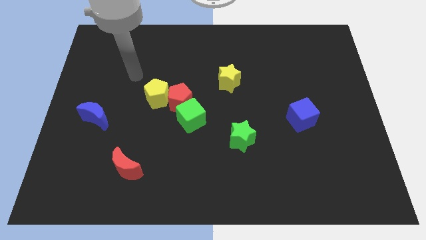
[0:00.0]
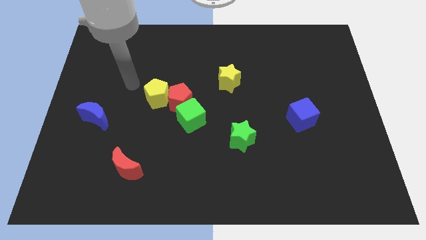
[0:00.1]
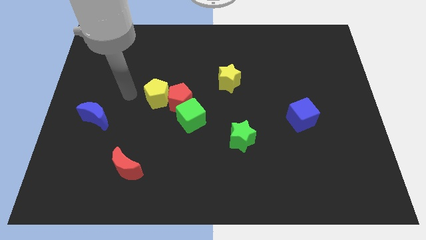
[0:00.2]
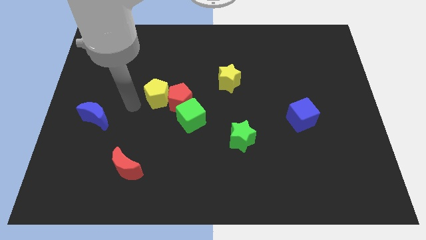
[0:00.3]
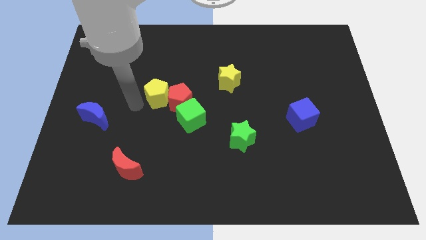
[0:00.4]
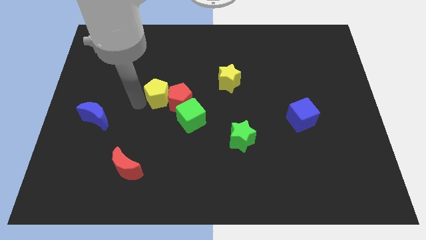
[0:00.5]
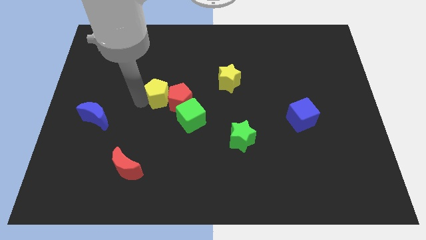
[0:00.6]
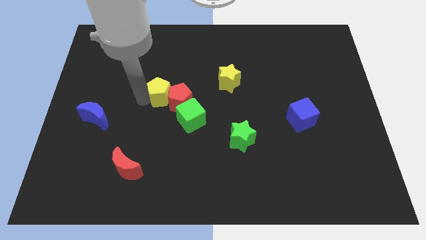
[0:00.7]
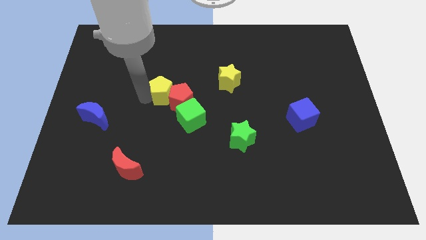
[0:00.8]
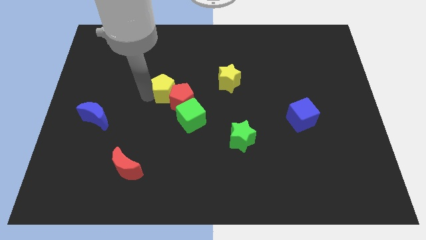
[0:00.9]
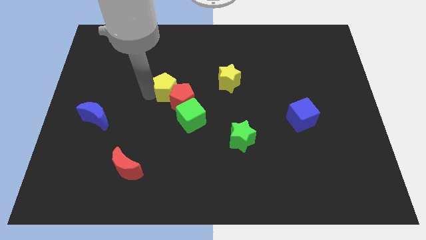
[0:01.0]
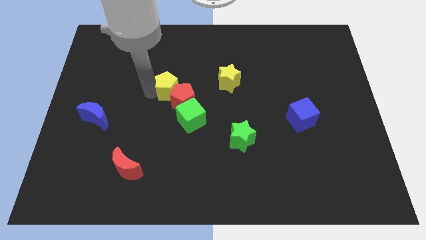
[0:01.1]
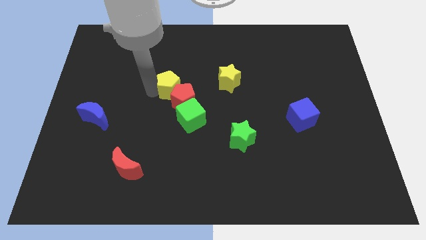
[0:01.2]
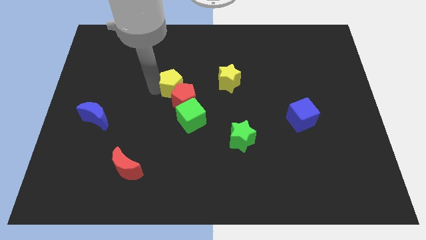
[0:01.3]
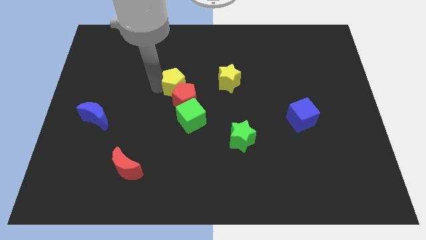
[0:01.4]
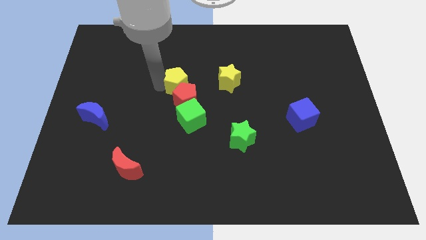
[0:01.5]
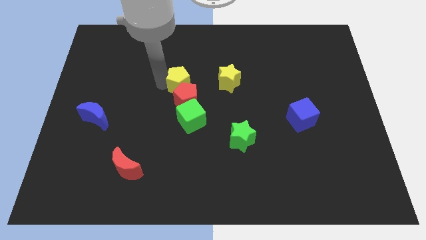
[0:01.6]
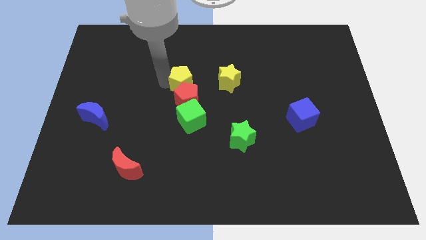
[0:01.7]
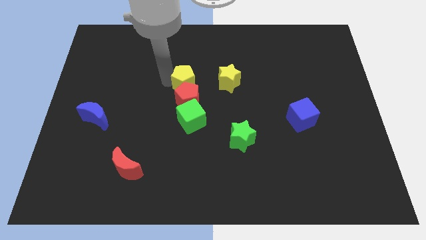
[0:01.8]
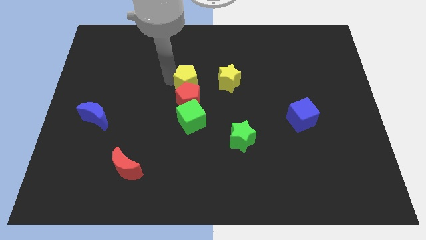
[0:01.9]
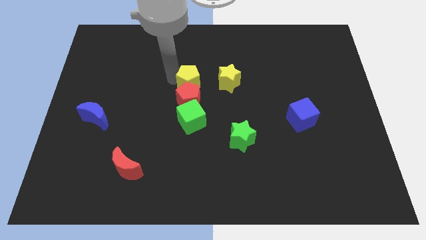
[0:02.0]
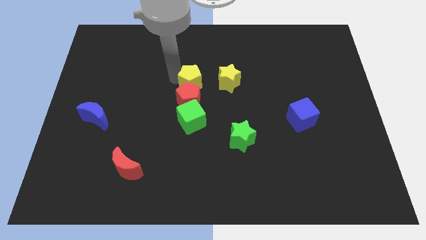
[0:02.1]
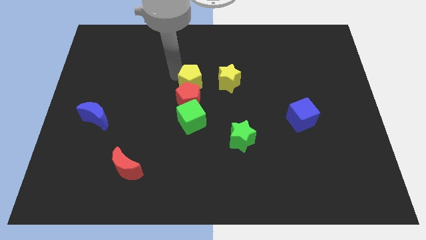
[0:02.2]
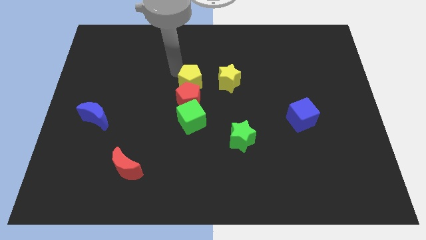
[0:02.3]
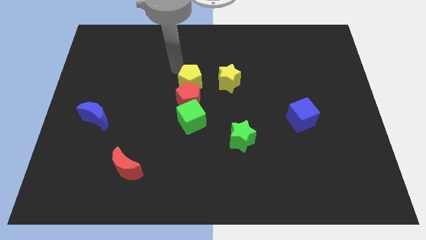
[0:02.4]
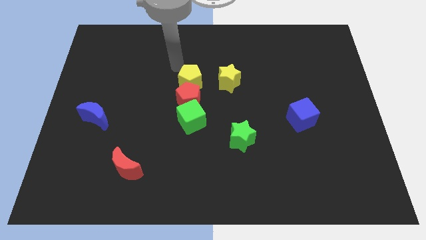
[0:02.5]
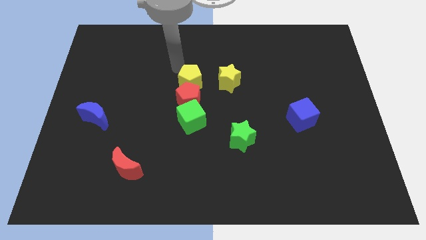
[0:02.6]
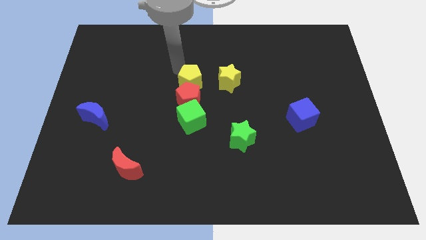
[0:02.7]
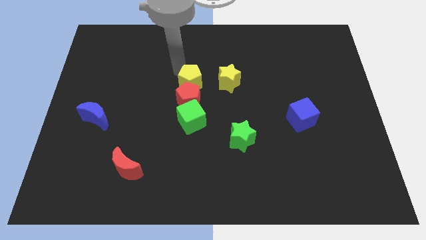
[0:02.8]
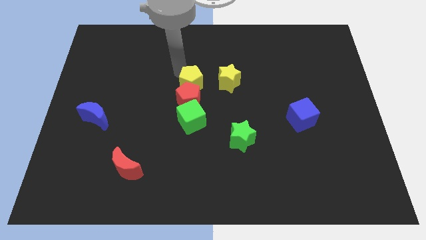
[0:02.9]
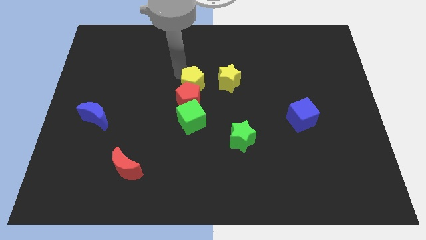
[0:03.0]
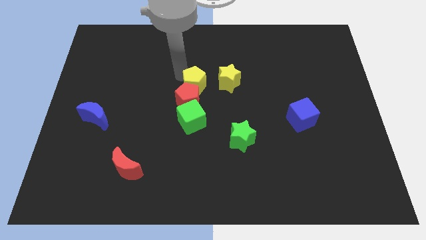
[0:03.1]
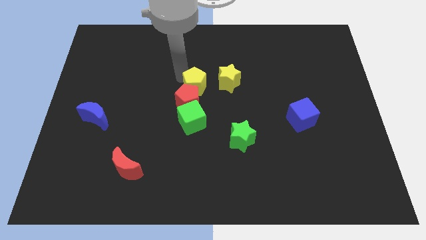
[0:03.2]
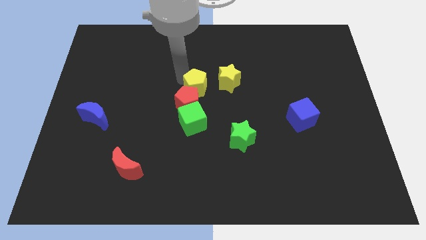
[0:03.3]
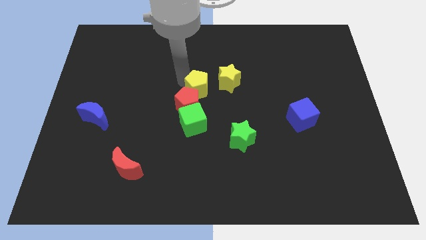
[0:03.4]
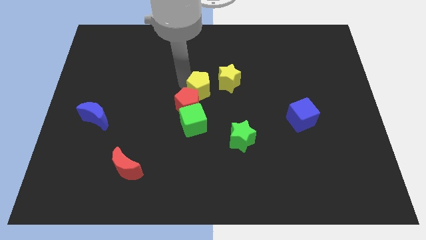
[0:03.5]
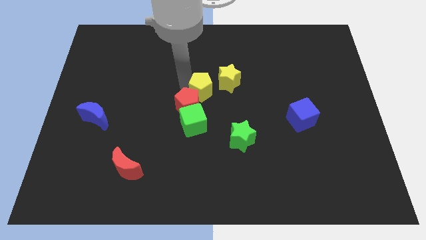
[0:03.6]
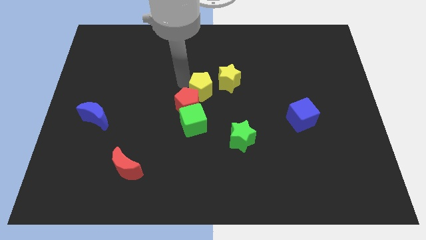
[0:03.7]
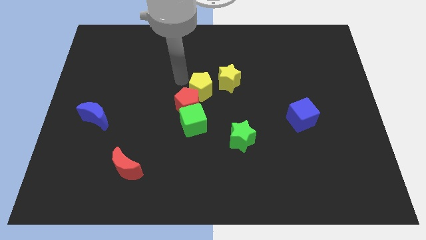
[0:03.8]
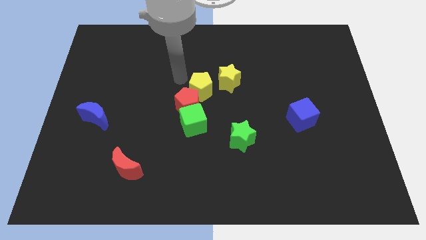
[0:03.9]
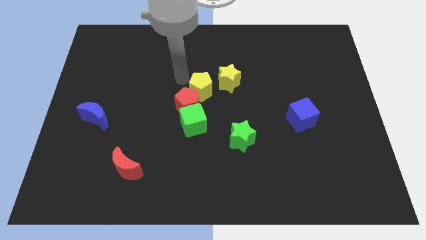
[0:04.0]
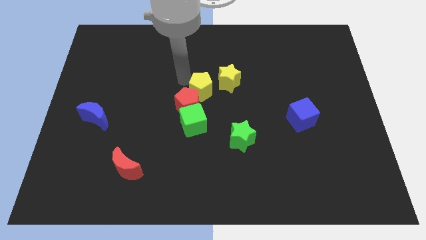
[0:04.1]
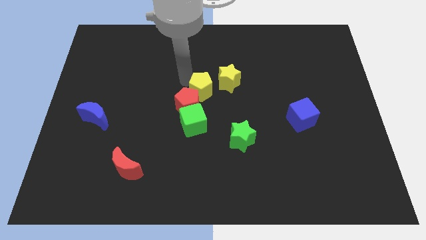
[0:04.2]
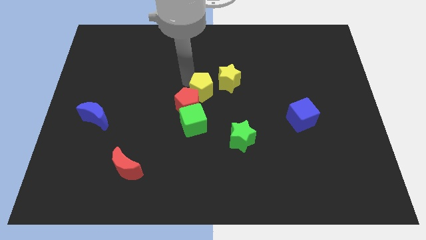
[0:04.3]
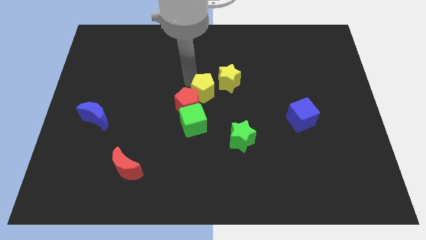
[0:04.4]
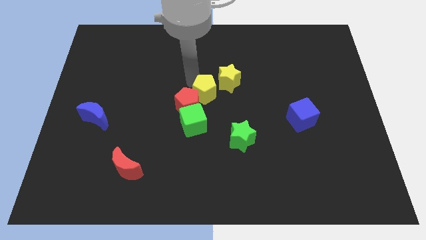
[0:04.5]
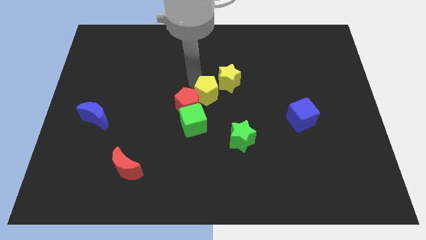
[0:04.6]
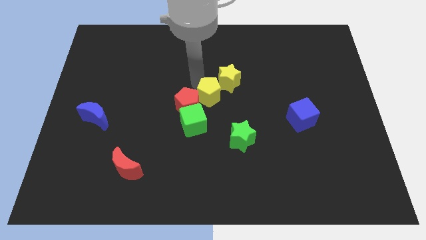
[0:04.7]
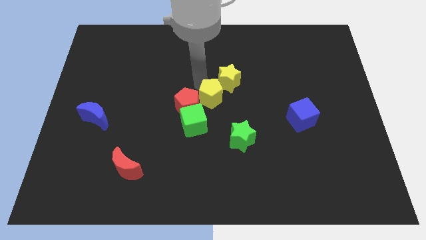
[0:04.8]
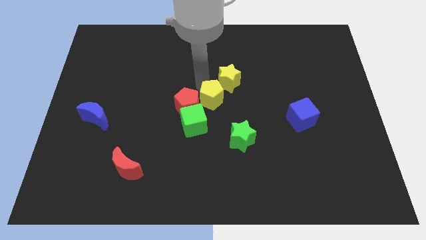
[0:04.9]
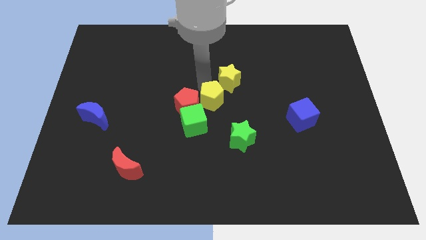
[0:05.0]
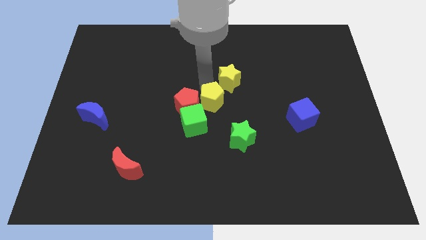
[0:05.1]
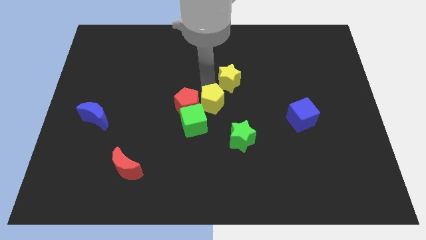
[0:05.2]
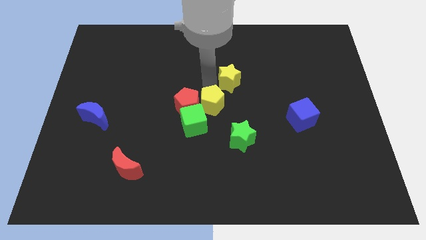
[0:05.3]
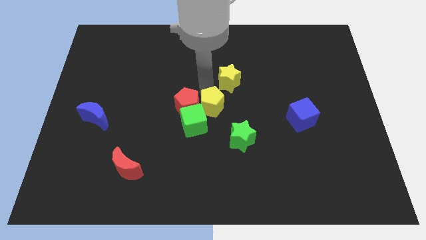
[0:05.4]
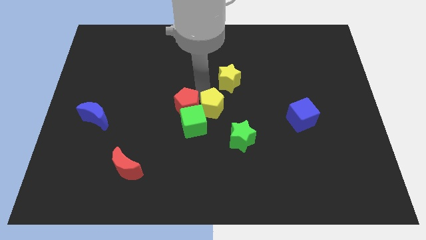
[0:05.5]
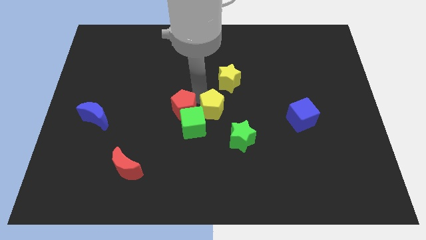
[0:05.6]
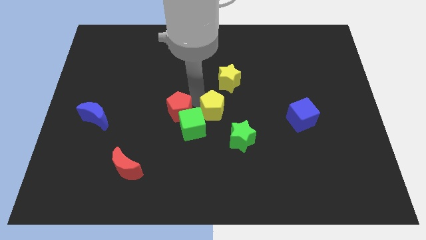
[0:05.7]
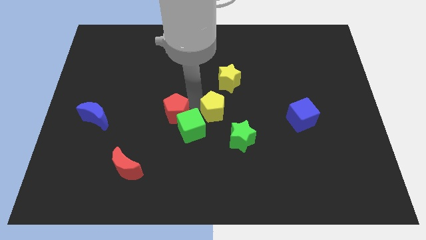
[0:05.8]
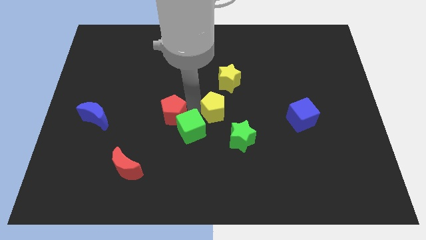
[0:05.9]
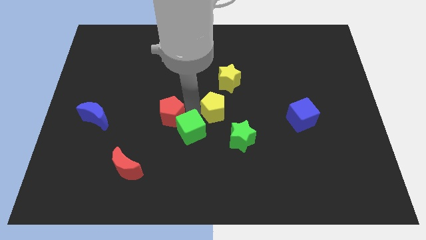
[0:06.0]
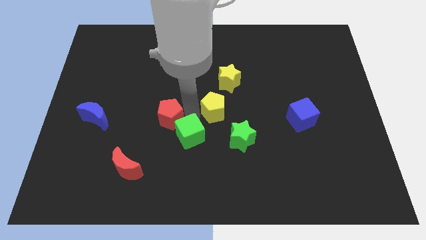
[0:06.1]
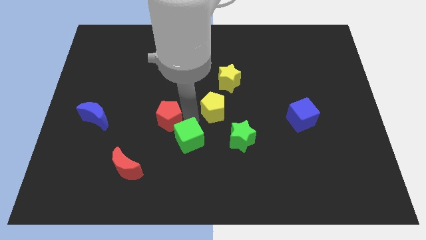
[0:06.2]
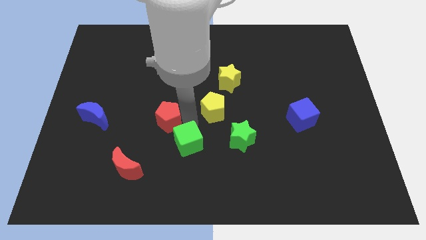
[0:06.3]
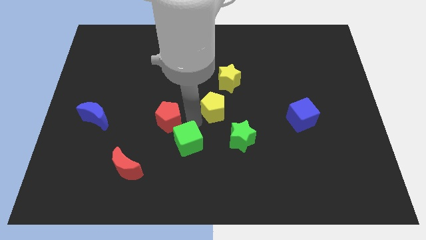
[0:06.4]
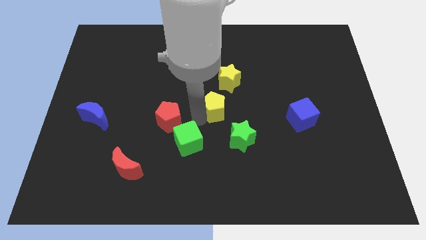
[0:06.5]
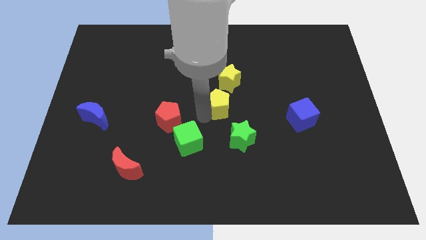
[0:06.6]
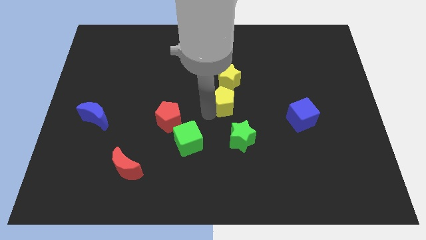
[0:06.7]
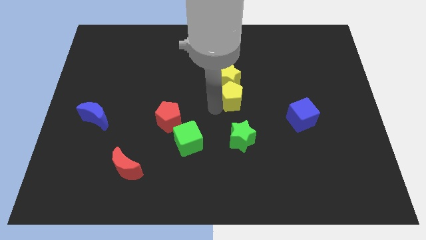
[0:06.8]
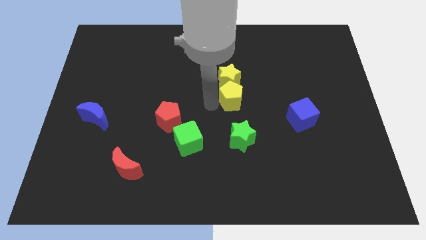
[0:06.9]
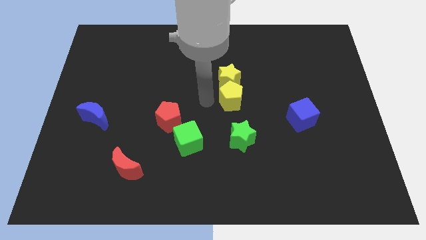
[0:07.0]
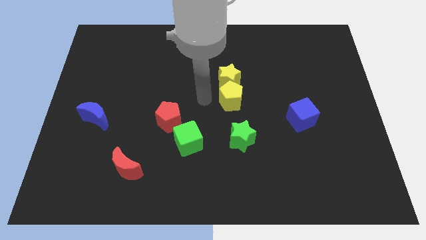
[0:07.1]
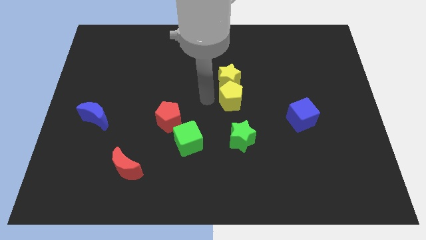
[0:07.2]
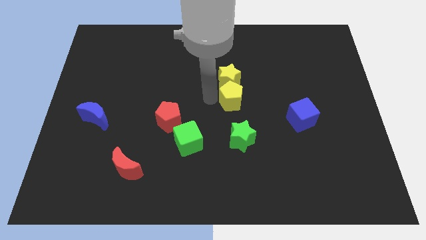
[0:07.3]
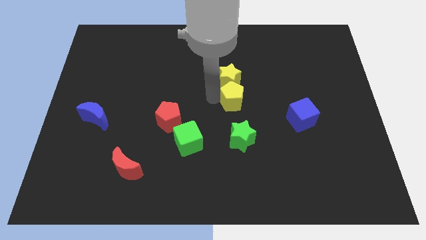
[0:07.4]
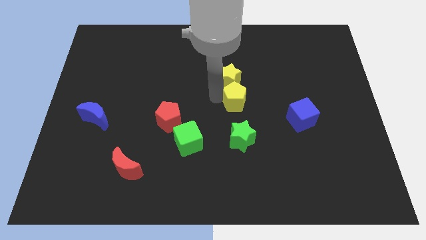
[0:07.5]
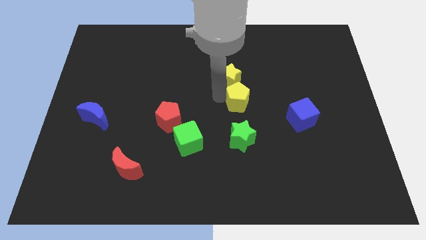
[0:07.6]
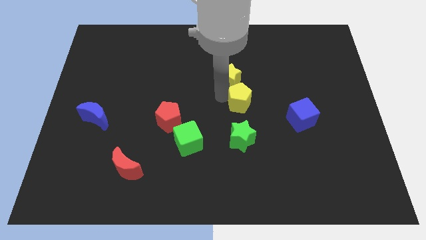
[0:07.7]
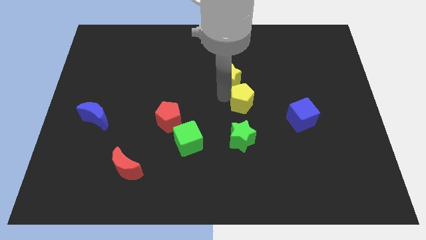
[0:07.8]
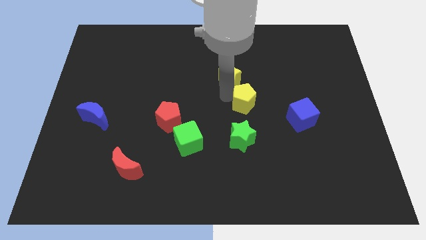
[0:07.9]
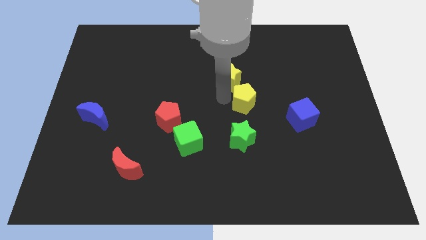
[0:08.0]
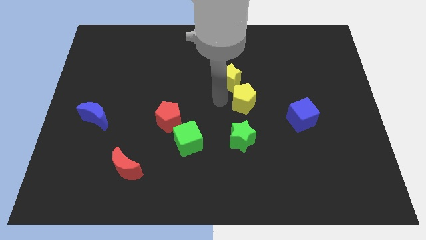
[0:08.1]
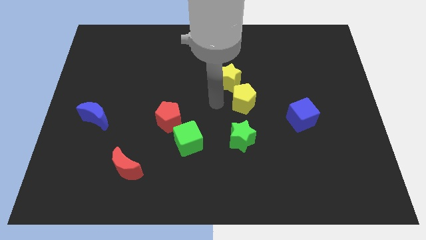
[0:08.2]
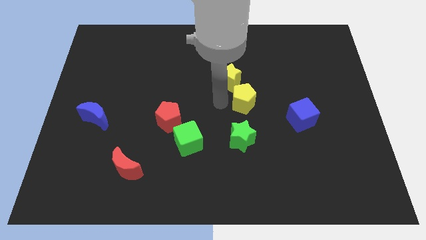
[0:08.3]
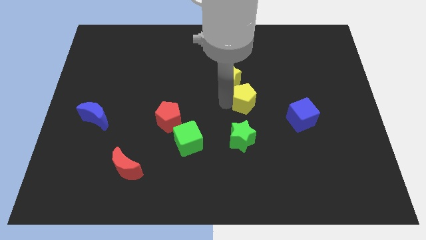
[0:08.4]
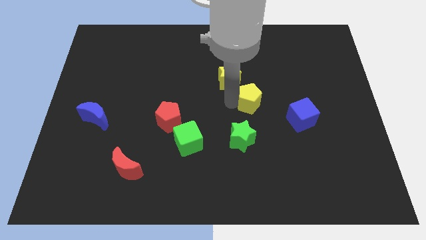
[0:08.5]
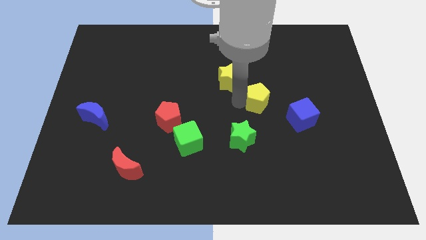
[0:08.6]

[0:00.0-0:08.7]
slide the yellow pentagon diagonally up and to the left of the blue cube
